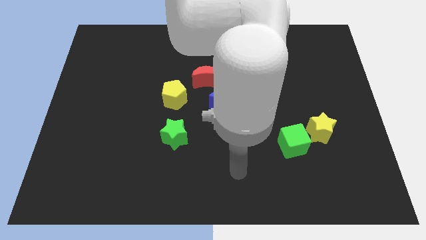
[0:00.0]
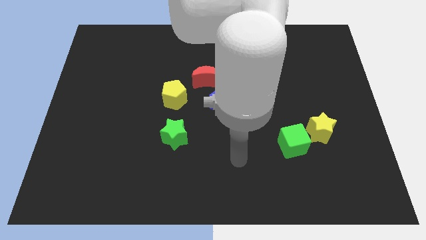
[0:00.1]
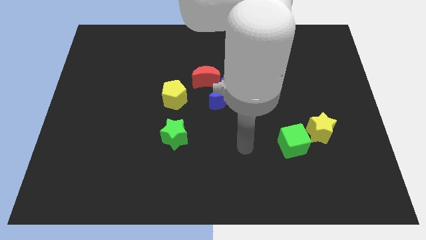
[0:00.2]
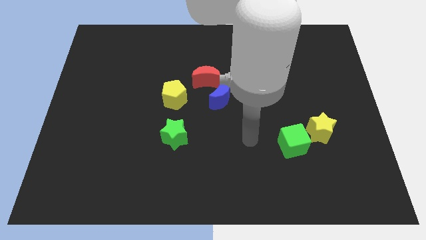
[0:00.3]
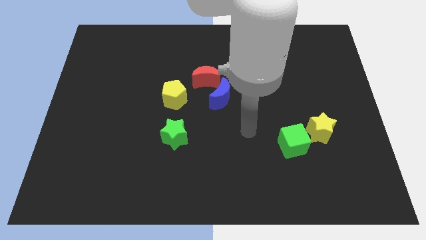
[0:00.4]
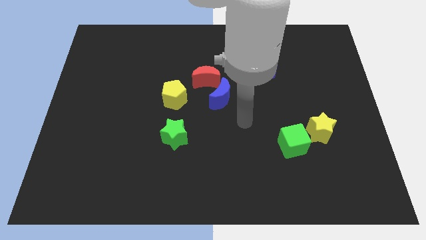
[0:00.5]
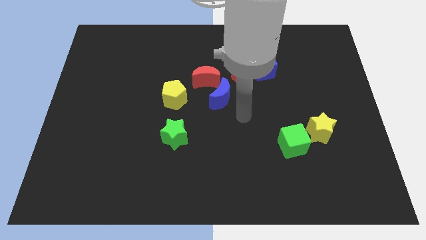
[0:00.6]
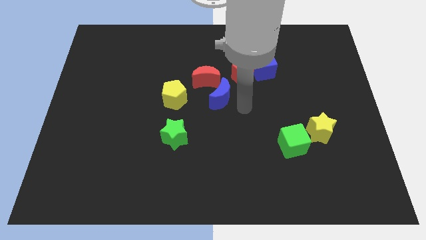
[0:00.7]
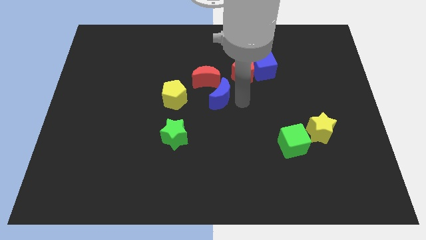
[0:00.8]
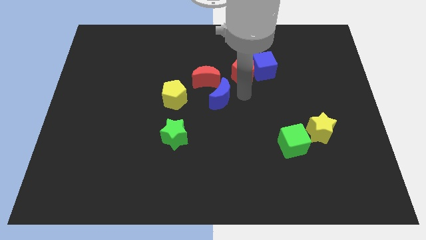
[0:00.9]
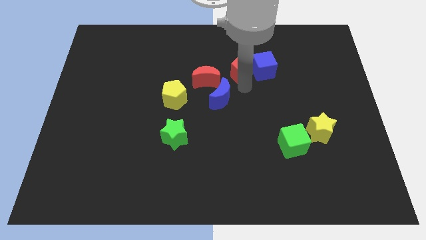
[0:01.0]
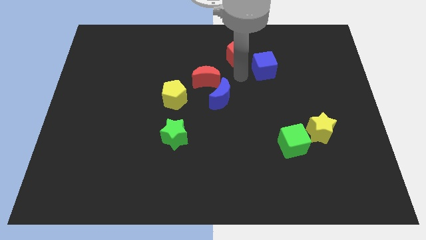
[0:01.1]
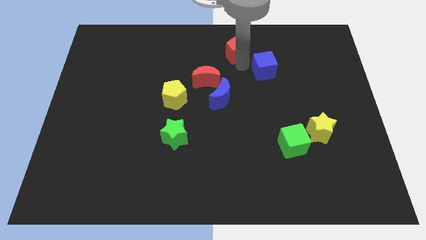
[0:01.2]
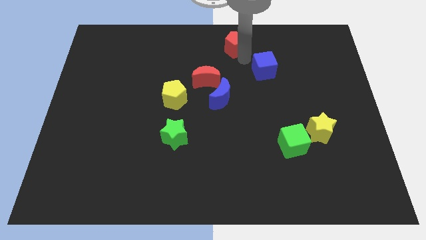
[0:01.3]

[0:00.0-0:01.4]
pull the blue cube apart from the red pentagon

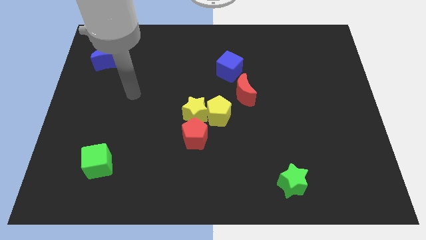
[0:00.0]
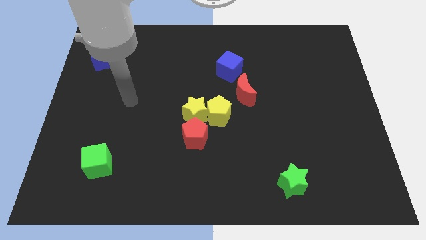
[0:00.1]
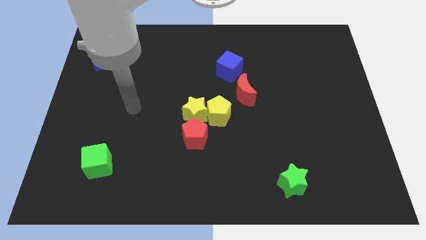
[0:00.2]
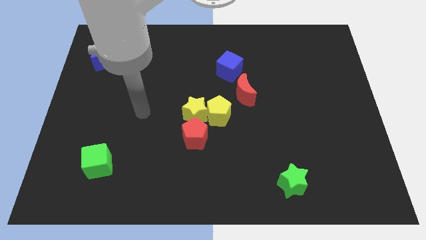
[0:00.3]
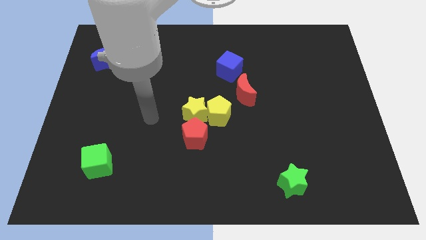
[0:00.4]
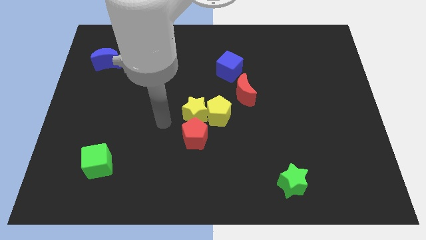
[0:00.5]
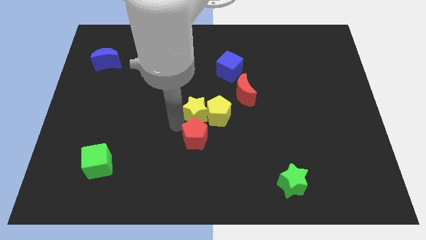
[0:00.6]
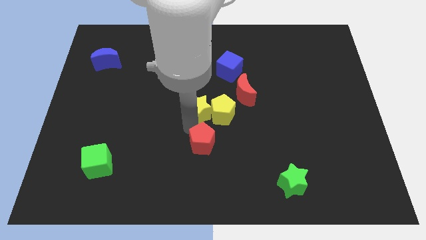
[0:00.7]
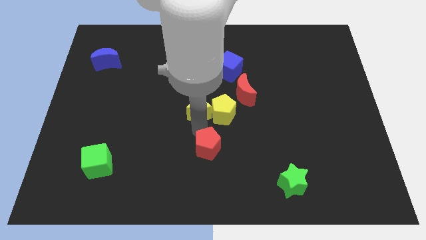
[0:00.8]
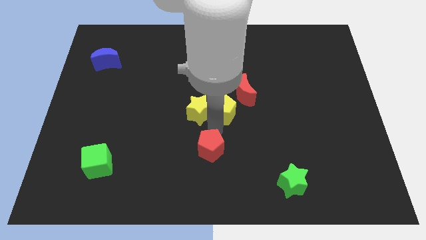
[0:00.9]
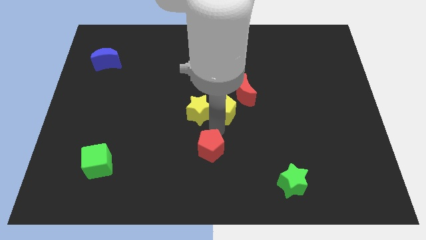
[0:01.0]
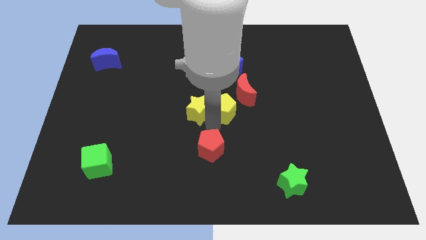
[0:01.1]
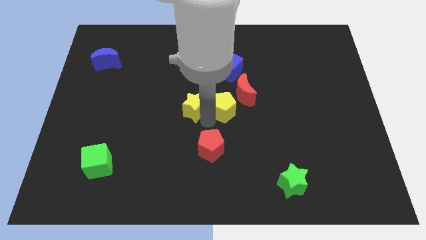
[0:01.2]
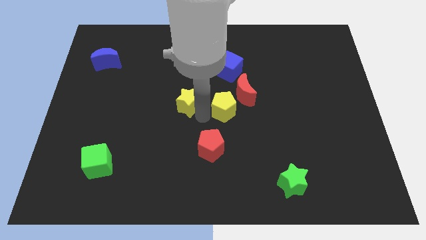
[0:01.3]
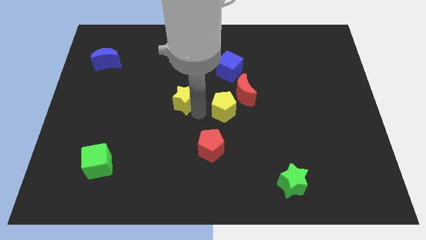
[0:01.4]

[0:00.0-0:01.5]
pull the yellow star apart from the yellow pentagon and red pentagon

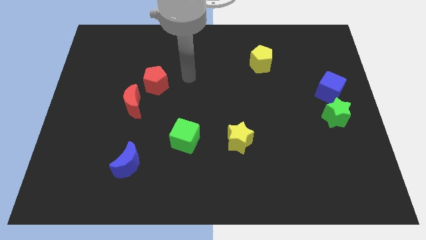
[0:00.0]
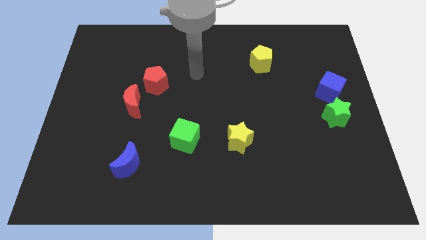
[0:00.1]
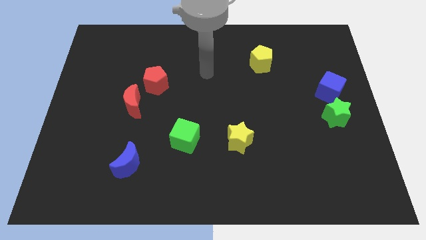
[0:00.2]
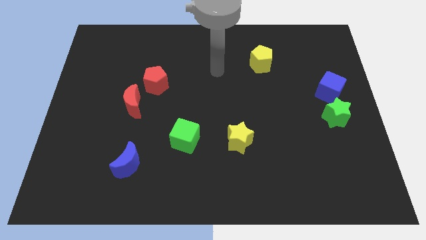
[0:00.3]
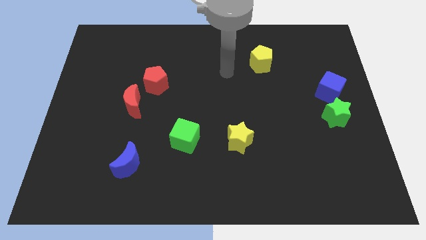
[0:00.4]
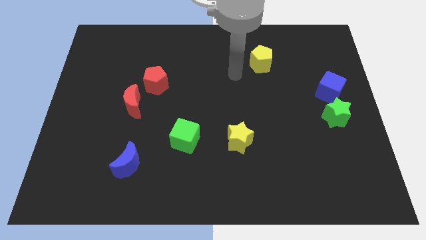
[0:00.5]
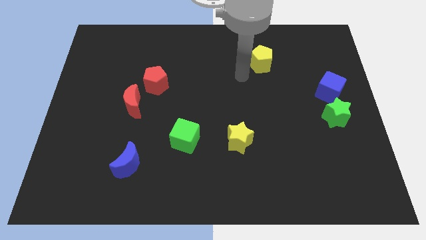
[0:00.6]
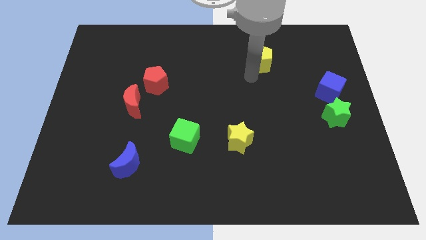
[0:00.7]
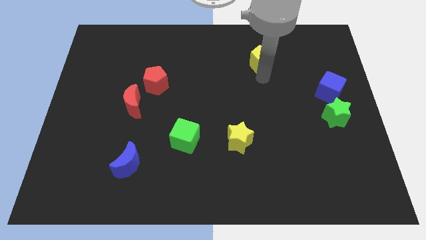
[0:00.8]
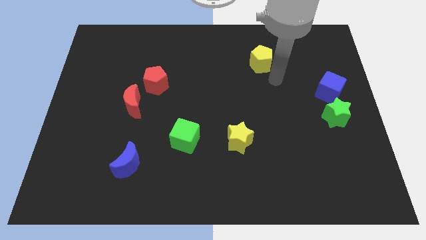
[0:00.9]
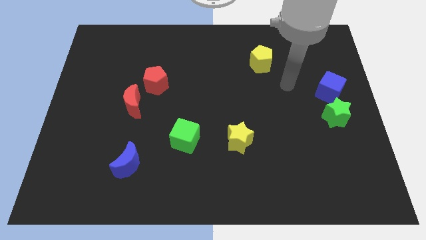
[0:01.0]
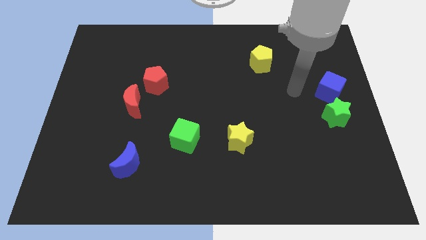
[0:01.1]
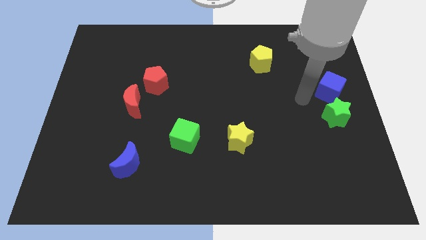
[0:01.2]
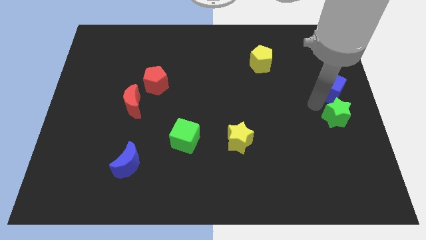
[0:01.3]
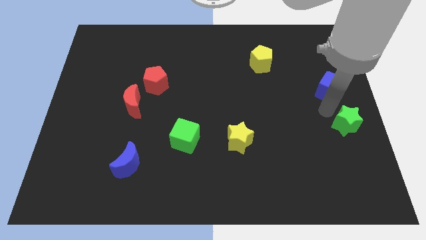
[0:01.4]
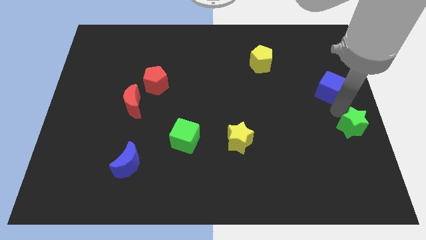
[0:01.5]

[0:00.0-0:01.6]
separate the blue cube from the green star

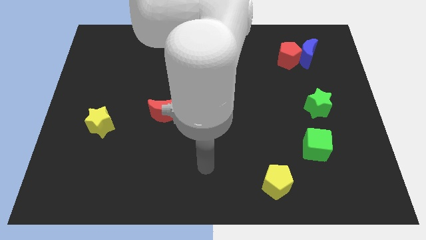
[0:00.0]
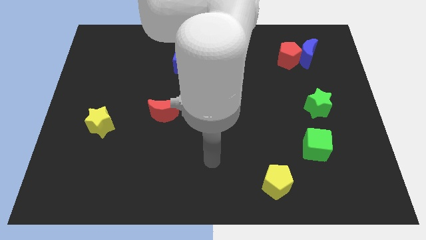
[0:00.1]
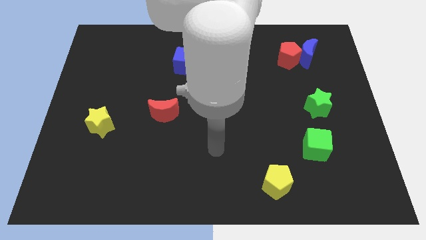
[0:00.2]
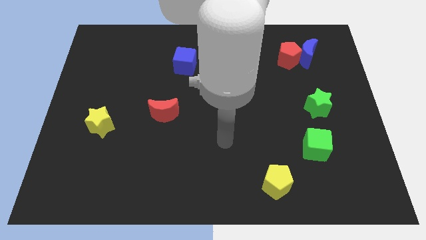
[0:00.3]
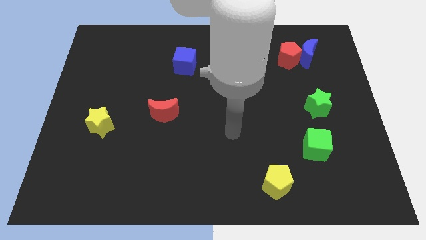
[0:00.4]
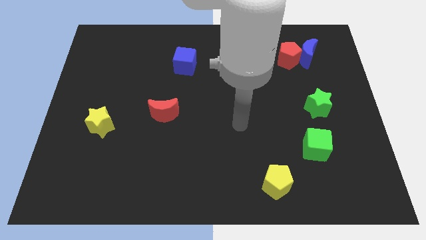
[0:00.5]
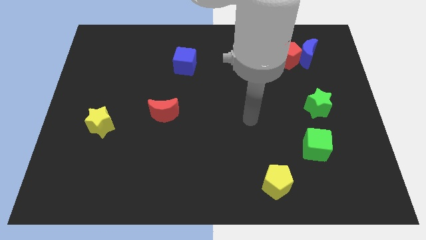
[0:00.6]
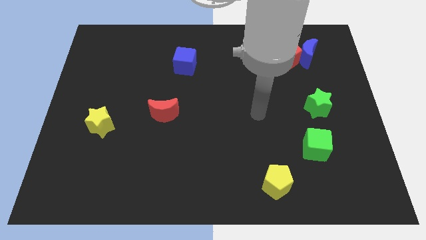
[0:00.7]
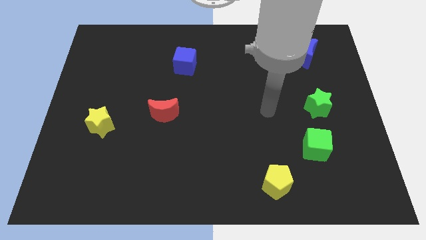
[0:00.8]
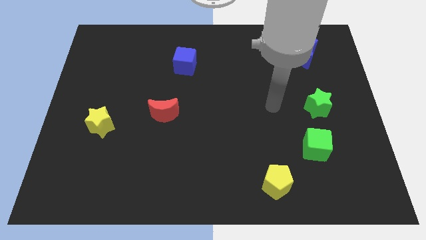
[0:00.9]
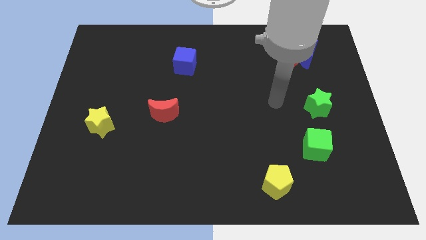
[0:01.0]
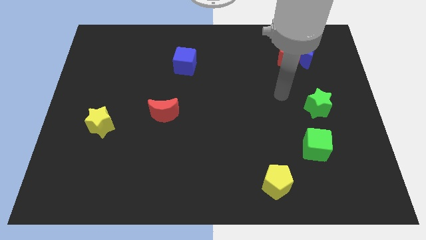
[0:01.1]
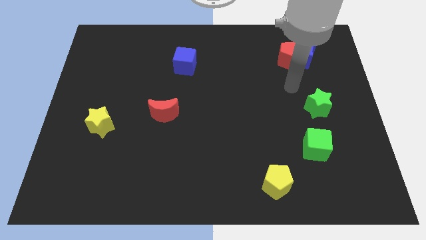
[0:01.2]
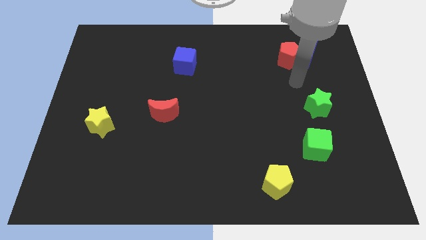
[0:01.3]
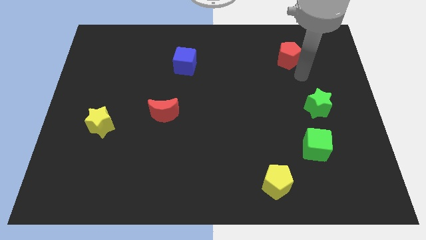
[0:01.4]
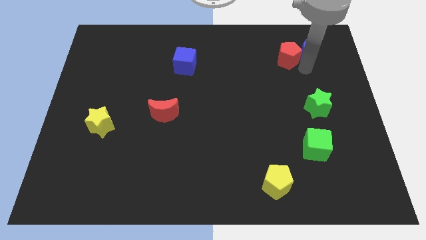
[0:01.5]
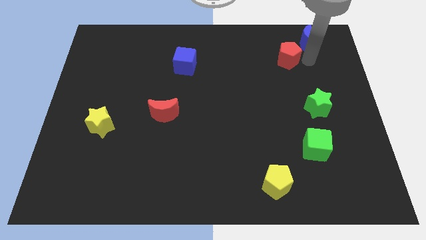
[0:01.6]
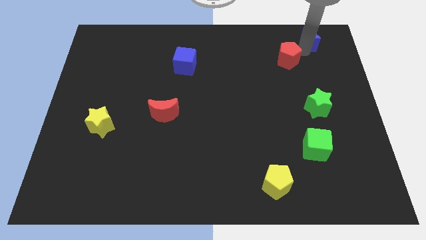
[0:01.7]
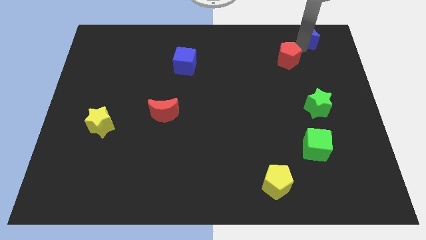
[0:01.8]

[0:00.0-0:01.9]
move the red pentagon away from the blue moon

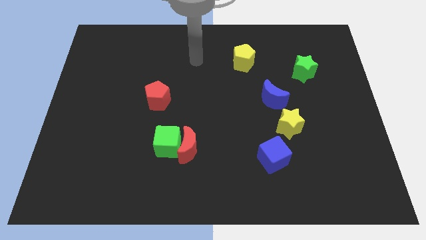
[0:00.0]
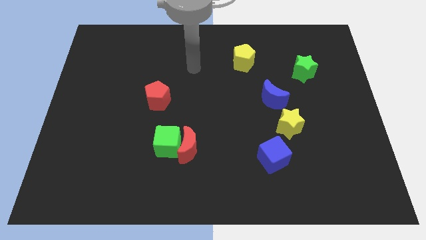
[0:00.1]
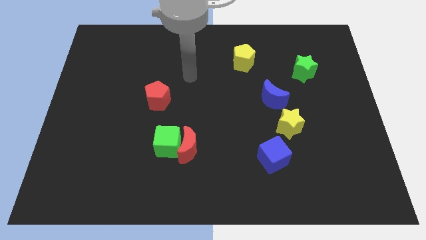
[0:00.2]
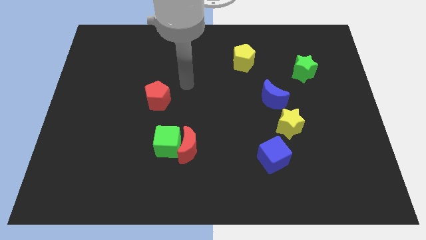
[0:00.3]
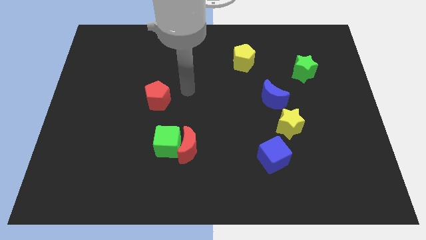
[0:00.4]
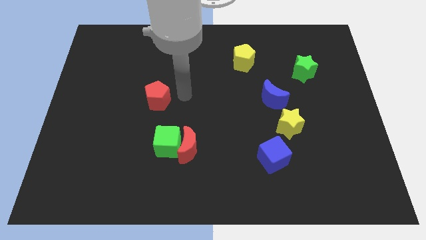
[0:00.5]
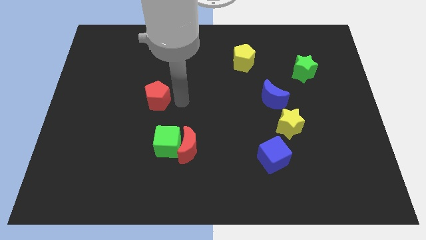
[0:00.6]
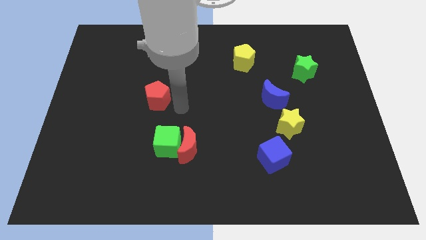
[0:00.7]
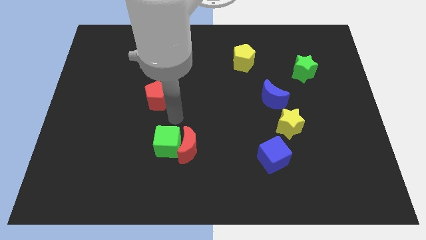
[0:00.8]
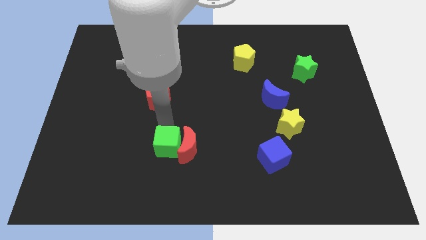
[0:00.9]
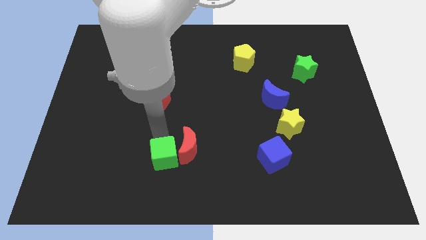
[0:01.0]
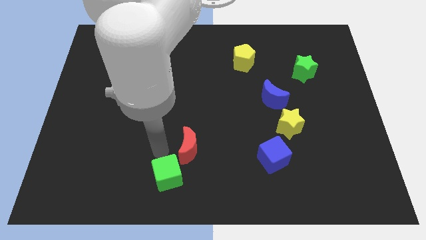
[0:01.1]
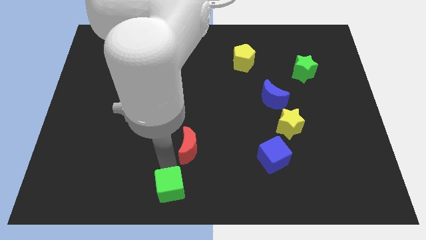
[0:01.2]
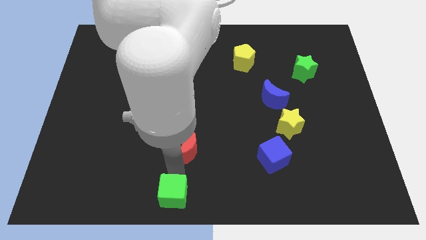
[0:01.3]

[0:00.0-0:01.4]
pull the red moon apart from the green cube

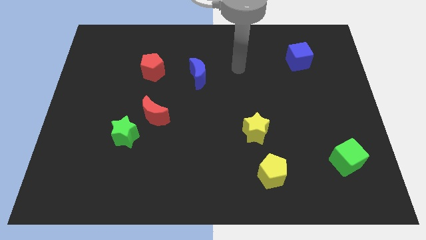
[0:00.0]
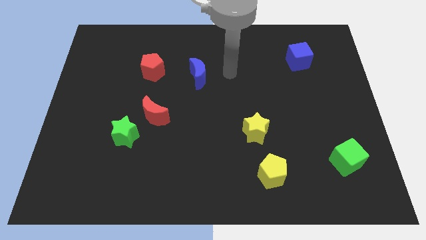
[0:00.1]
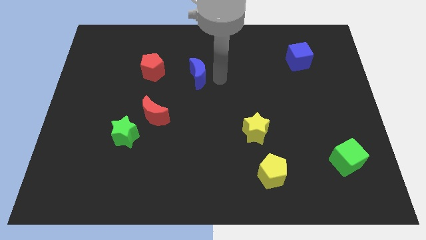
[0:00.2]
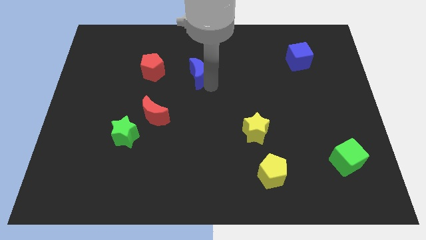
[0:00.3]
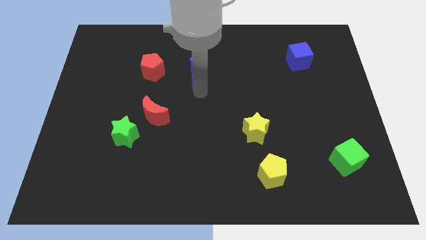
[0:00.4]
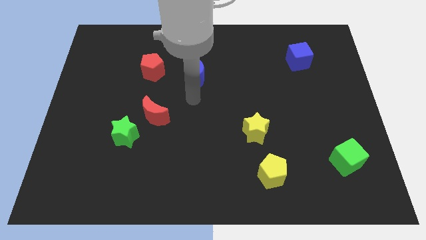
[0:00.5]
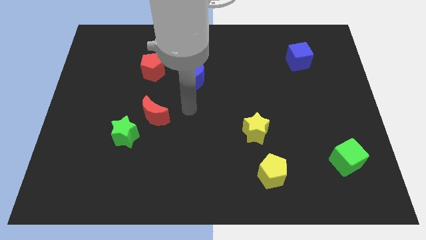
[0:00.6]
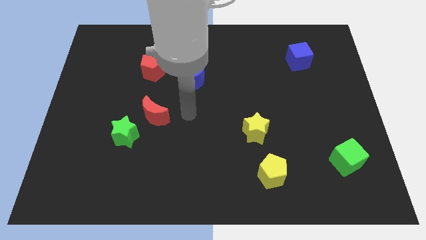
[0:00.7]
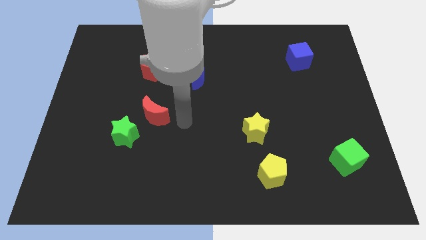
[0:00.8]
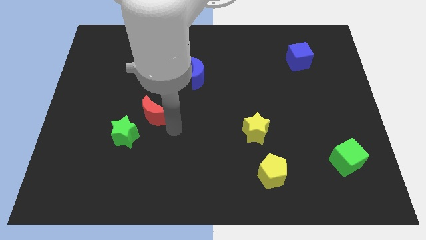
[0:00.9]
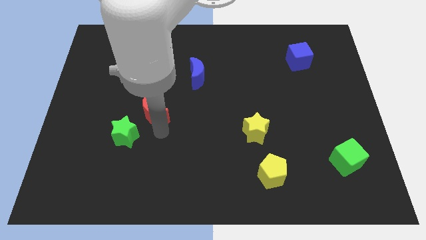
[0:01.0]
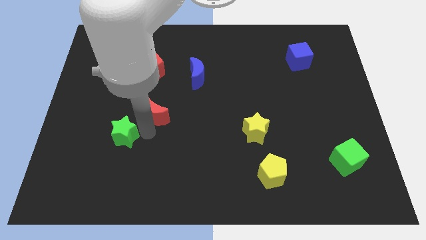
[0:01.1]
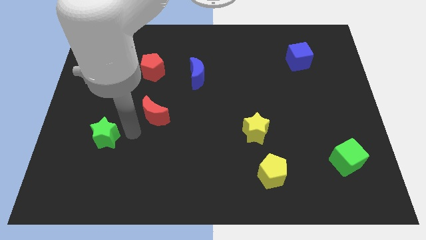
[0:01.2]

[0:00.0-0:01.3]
separate the red moon from the green star

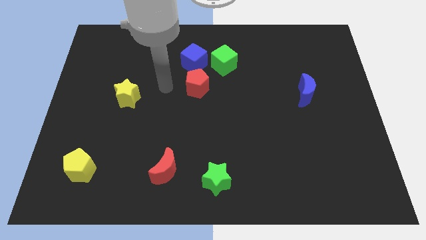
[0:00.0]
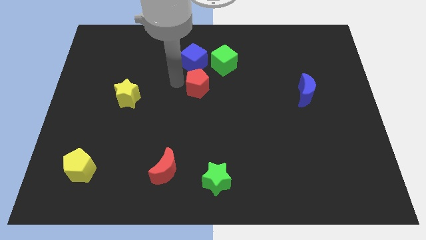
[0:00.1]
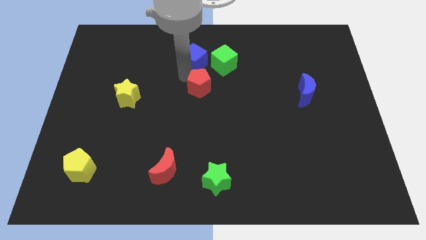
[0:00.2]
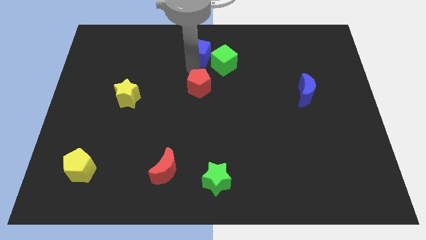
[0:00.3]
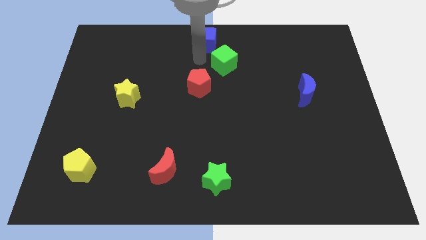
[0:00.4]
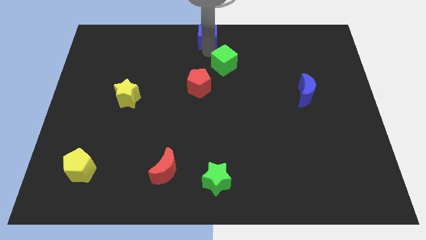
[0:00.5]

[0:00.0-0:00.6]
pull the green cube apart from the blue cube
